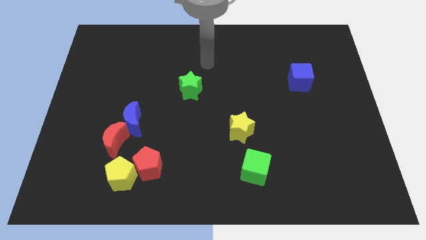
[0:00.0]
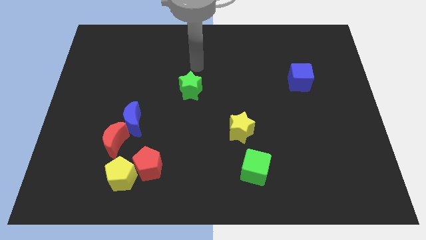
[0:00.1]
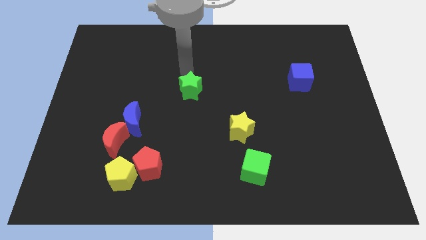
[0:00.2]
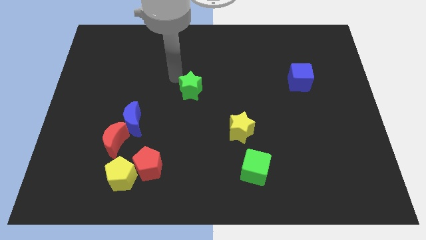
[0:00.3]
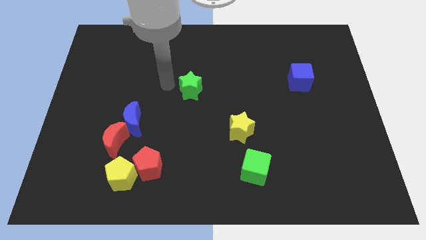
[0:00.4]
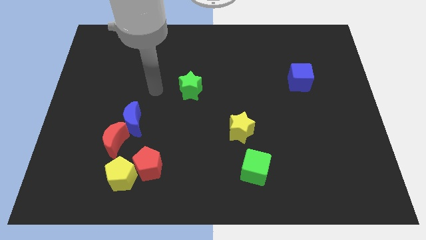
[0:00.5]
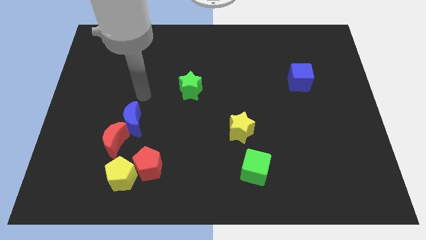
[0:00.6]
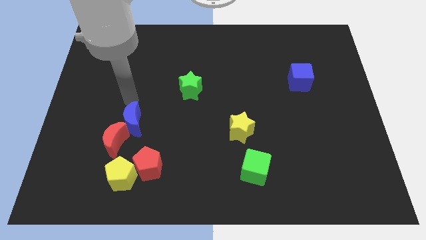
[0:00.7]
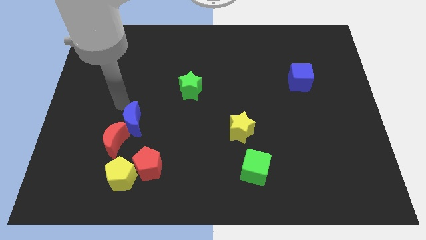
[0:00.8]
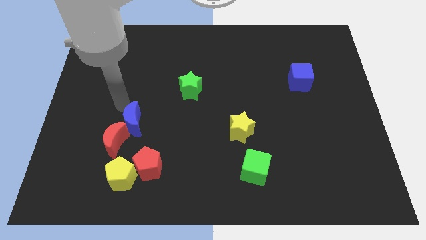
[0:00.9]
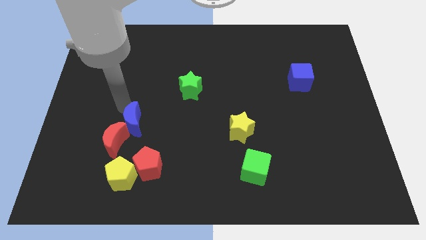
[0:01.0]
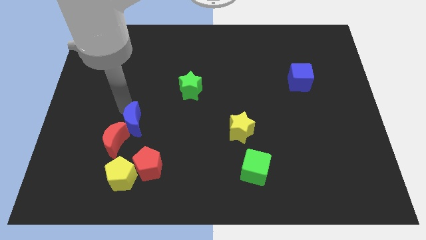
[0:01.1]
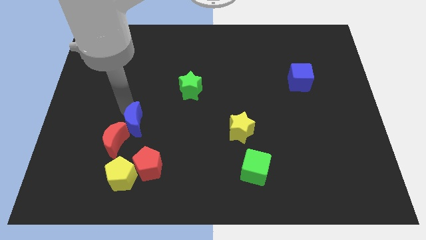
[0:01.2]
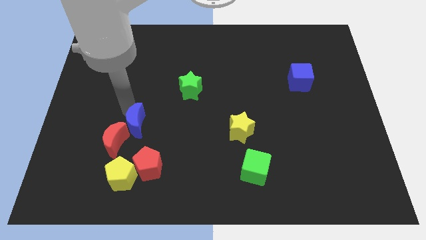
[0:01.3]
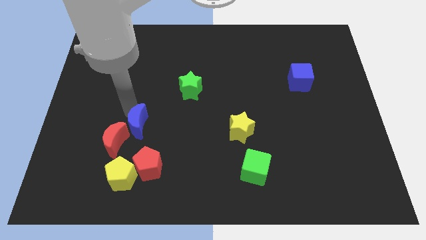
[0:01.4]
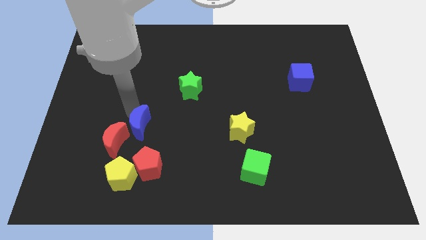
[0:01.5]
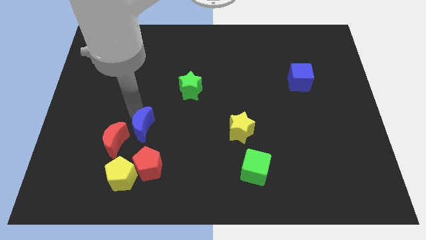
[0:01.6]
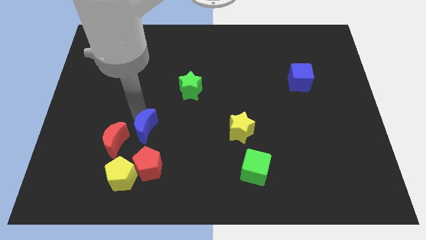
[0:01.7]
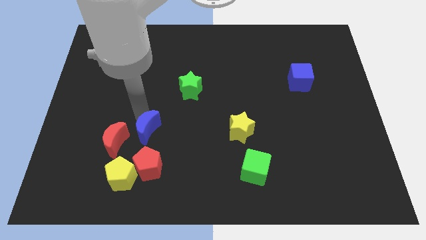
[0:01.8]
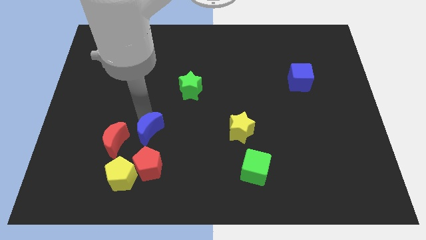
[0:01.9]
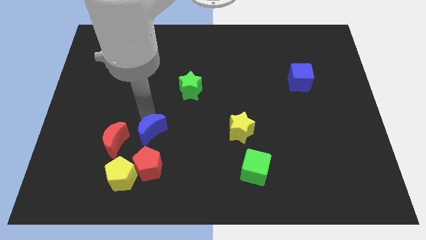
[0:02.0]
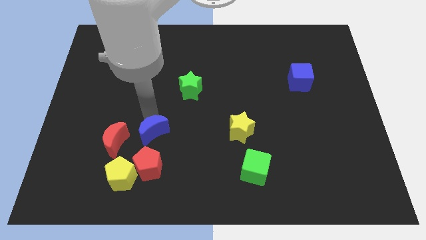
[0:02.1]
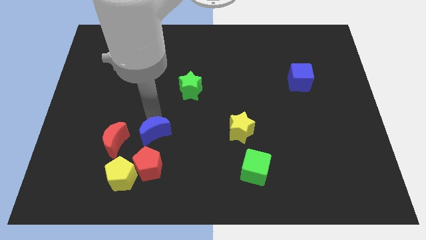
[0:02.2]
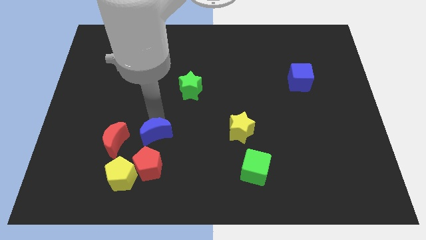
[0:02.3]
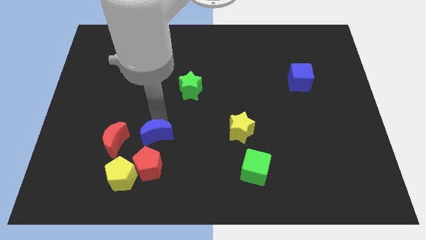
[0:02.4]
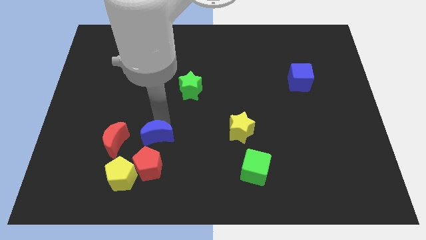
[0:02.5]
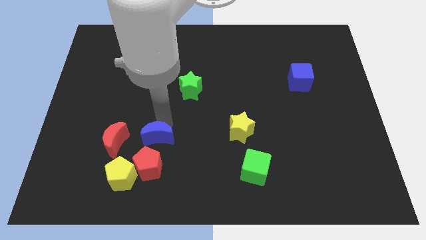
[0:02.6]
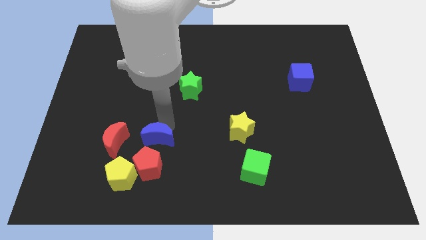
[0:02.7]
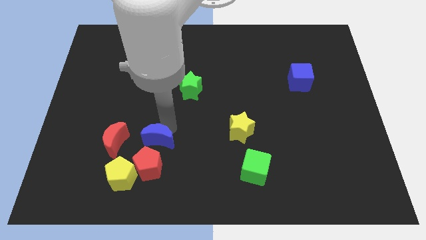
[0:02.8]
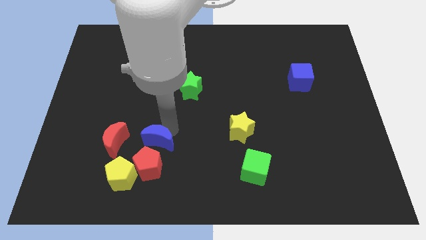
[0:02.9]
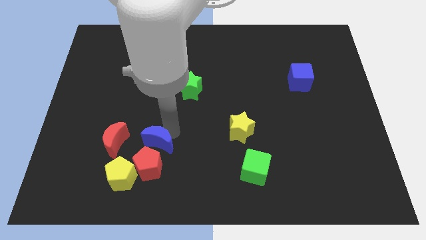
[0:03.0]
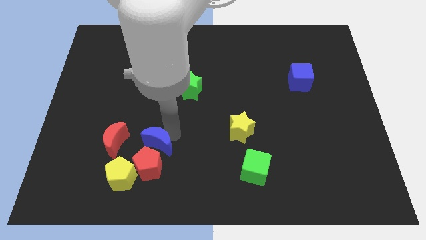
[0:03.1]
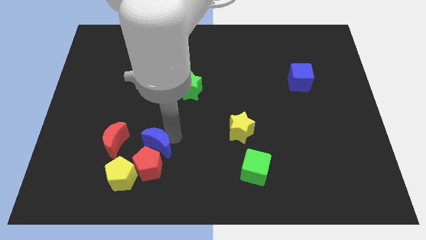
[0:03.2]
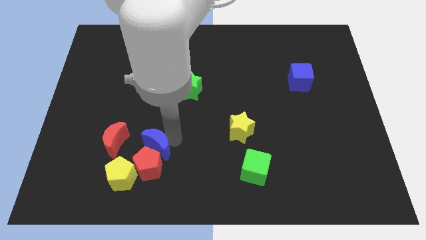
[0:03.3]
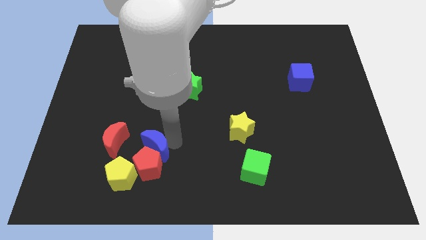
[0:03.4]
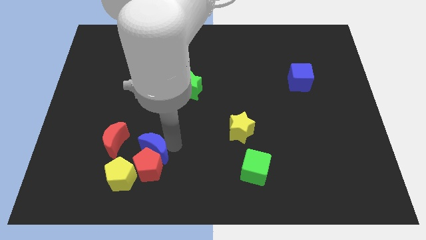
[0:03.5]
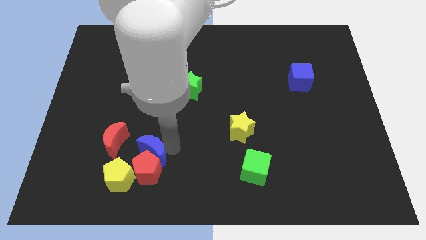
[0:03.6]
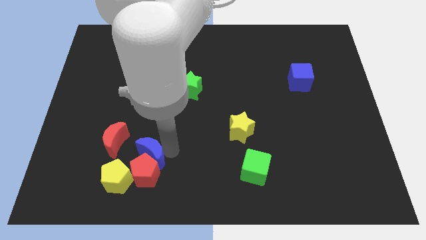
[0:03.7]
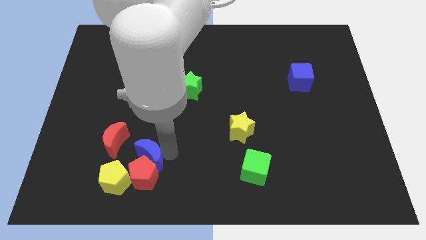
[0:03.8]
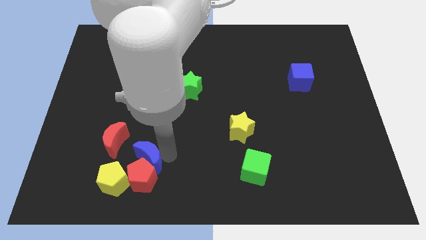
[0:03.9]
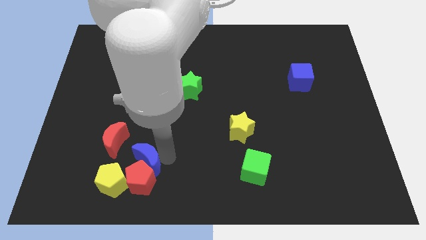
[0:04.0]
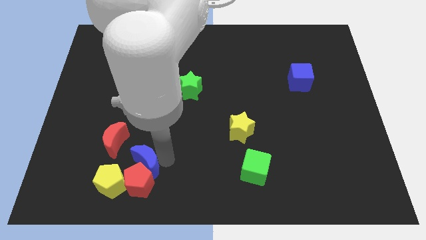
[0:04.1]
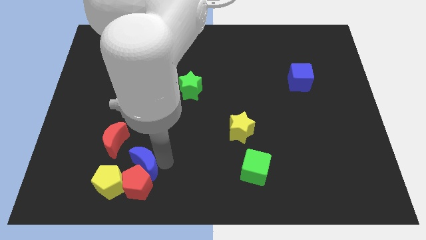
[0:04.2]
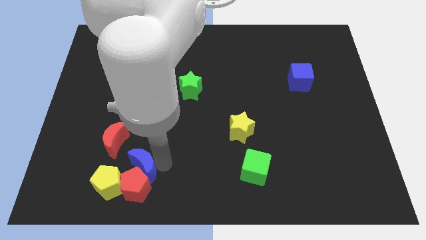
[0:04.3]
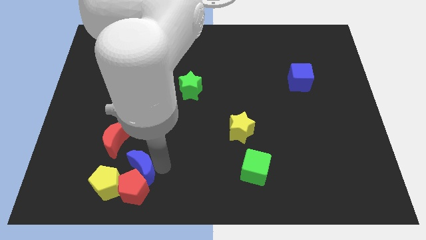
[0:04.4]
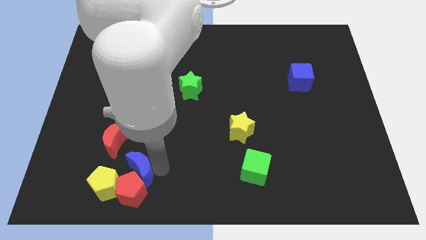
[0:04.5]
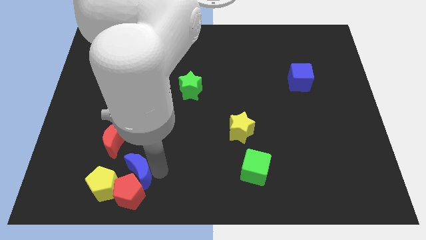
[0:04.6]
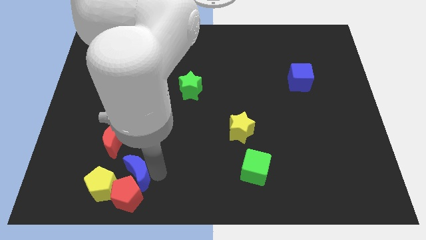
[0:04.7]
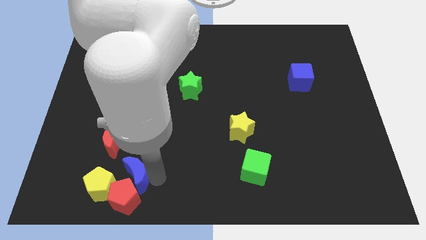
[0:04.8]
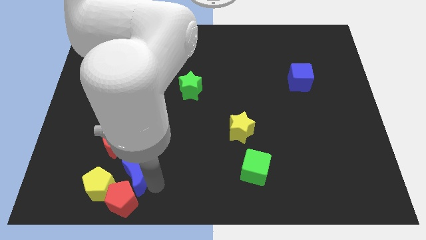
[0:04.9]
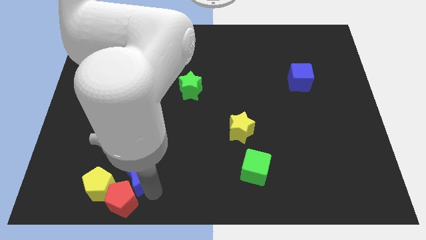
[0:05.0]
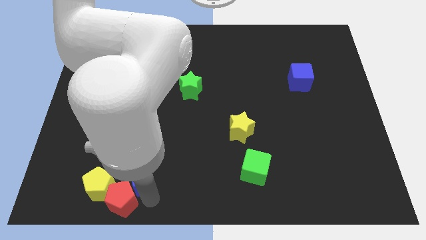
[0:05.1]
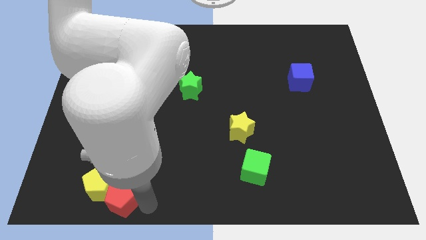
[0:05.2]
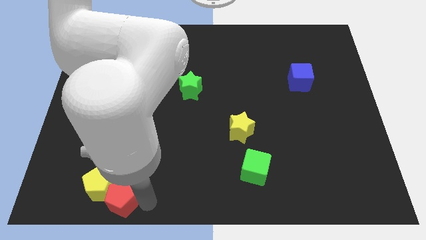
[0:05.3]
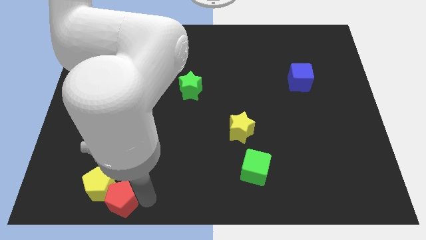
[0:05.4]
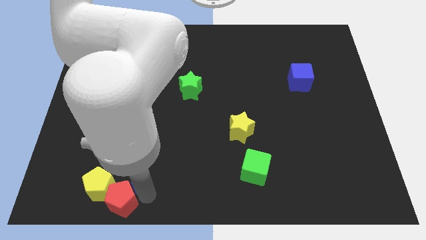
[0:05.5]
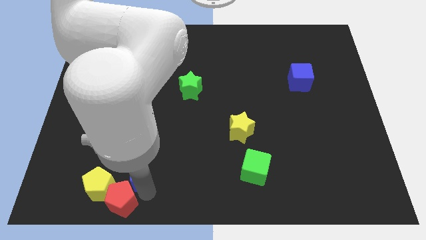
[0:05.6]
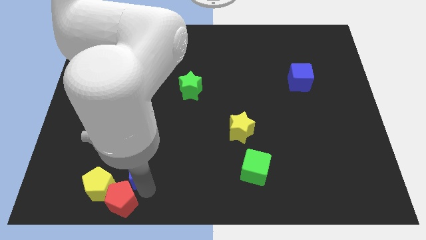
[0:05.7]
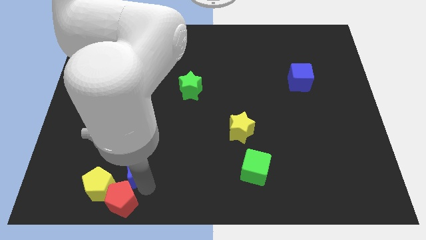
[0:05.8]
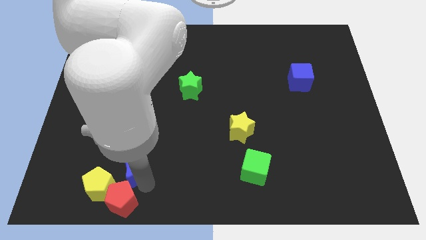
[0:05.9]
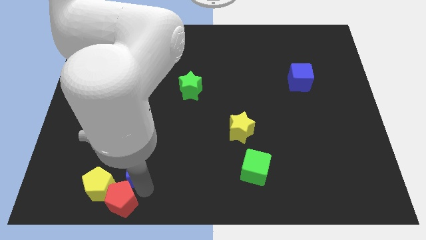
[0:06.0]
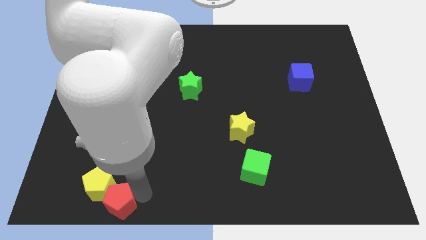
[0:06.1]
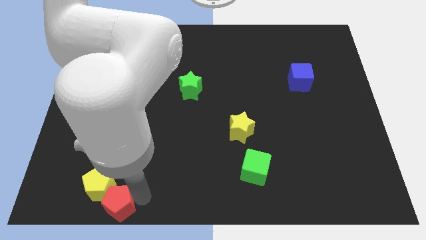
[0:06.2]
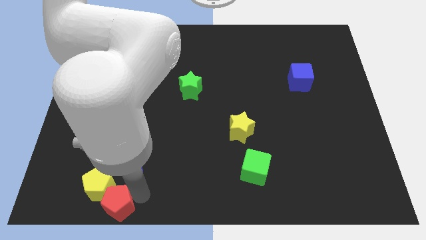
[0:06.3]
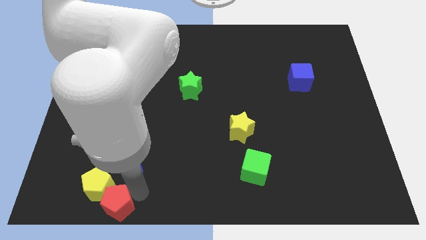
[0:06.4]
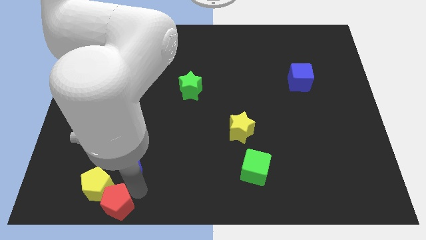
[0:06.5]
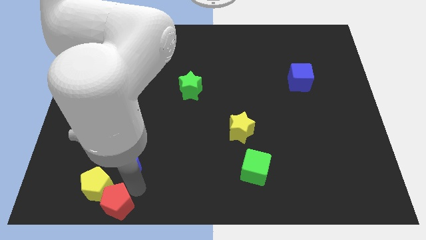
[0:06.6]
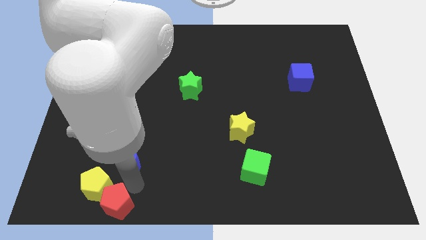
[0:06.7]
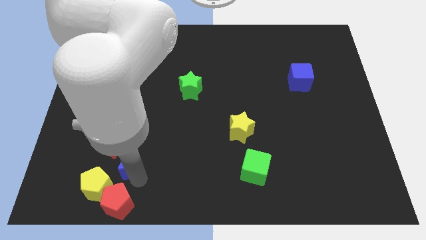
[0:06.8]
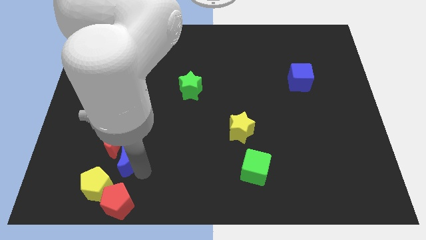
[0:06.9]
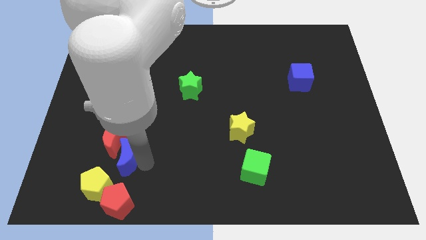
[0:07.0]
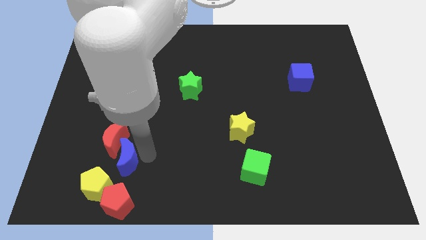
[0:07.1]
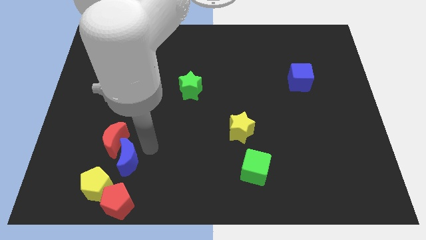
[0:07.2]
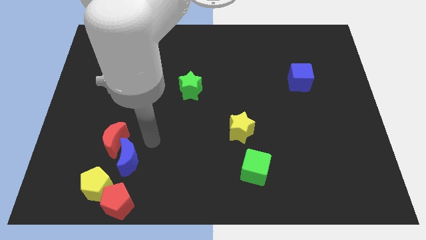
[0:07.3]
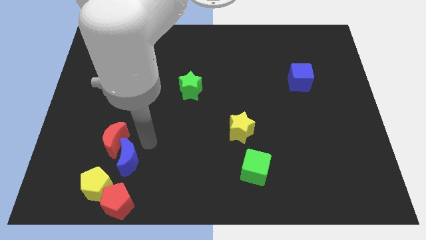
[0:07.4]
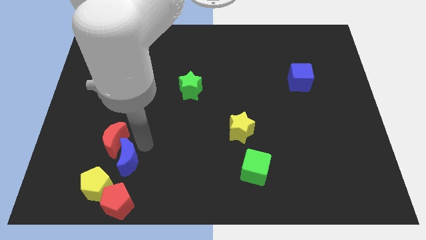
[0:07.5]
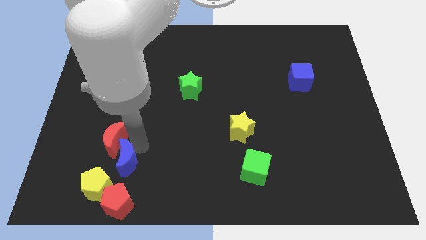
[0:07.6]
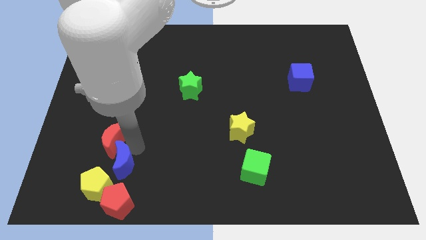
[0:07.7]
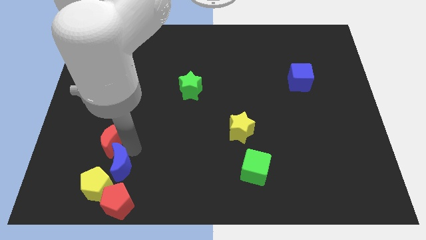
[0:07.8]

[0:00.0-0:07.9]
push the blue moon towards the yellow pentagon
